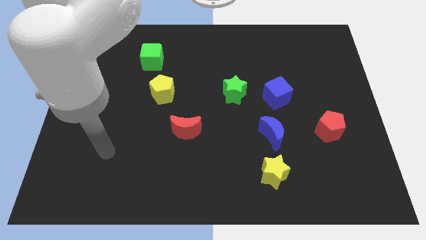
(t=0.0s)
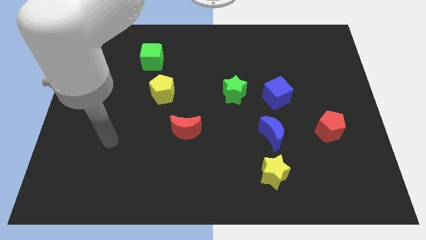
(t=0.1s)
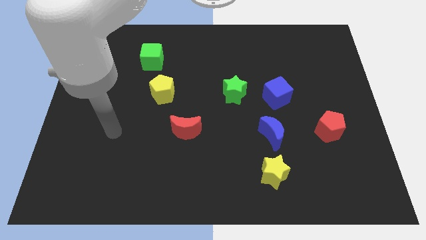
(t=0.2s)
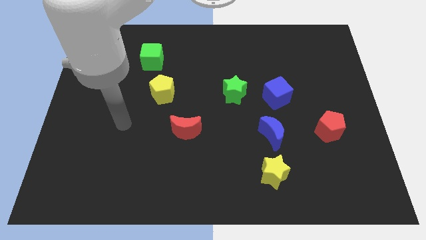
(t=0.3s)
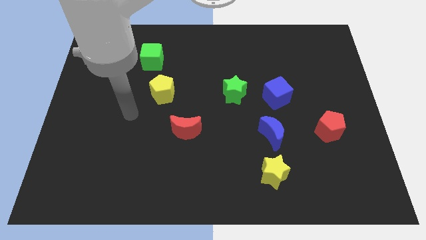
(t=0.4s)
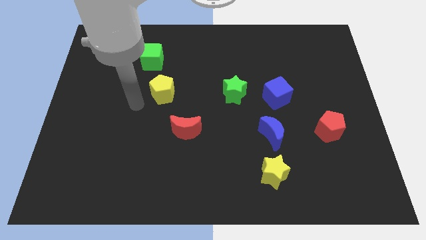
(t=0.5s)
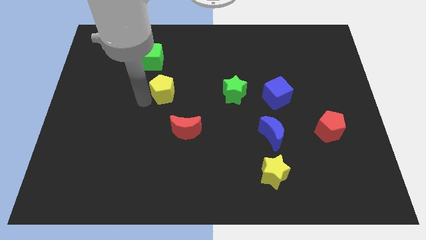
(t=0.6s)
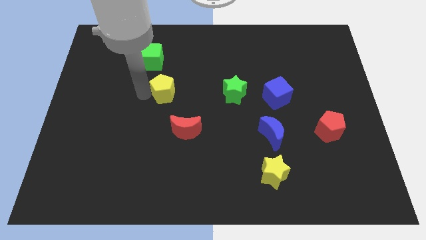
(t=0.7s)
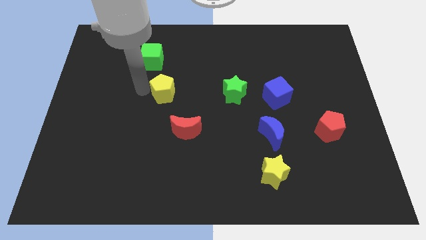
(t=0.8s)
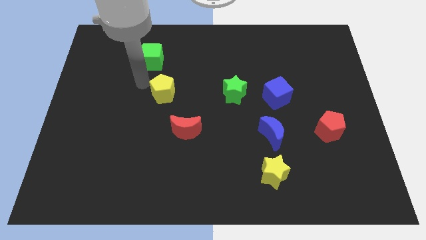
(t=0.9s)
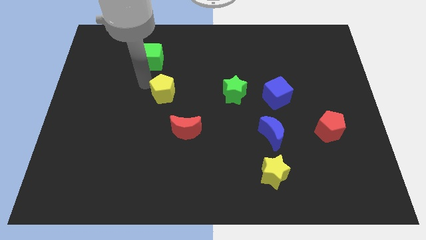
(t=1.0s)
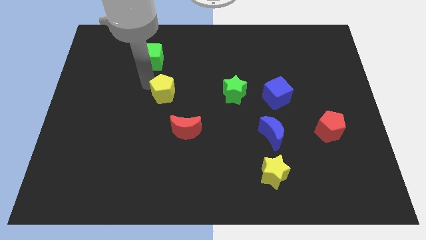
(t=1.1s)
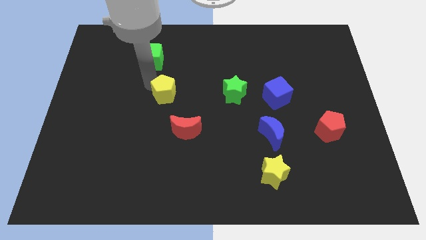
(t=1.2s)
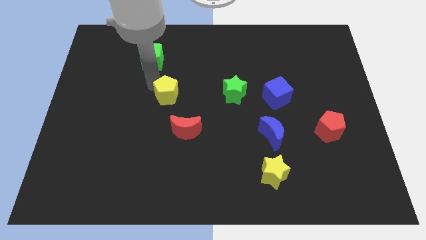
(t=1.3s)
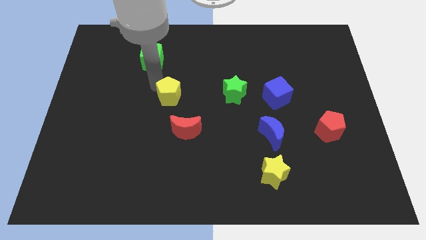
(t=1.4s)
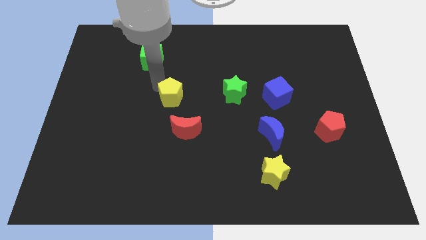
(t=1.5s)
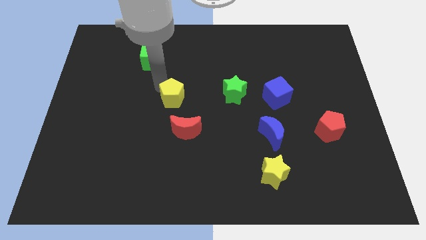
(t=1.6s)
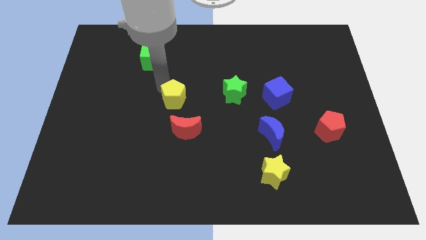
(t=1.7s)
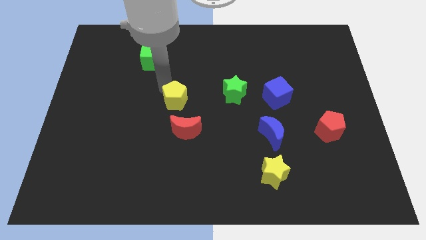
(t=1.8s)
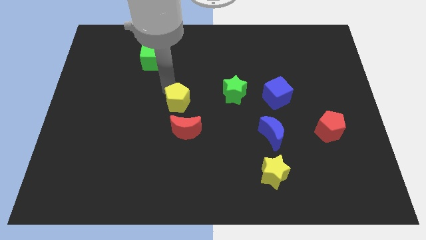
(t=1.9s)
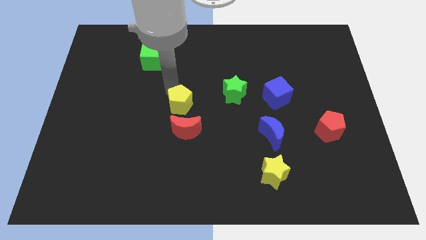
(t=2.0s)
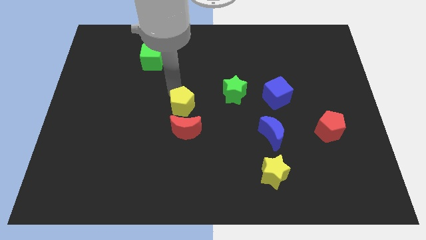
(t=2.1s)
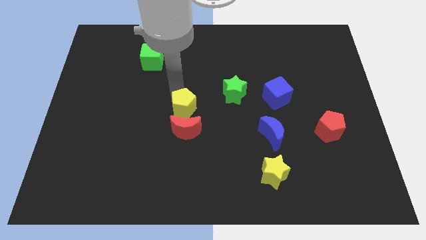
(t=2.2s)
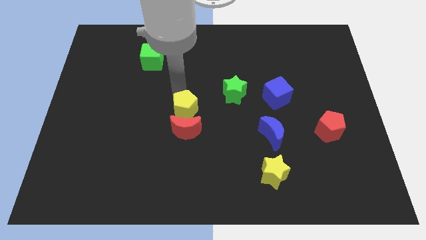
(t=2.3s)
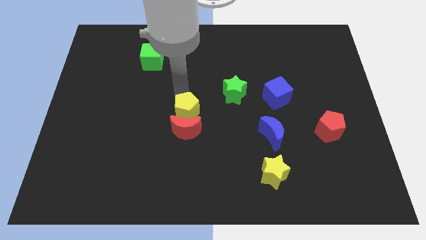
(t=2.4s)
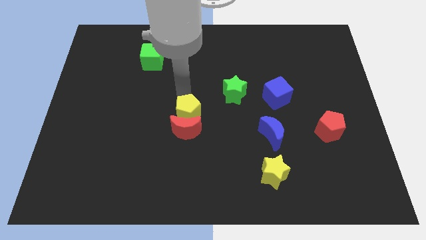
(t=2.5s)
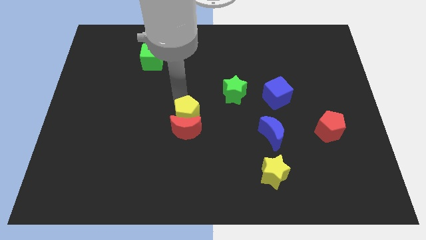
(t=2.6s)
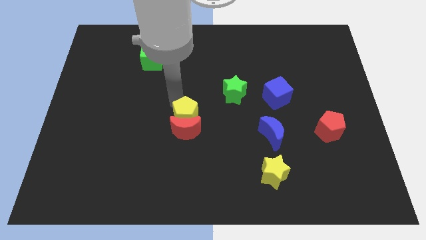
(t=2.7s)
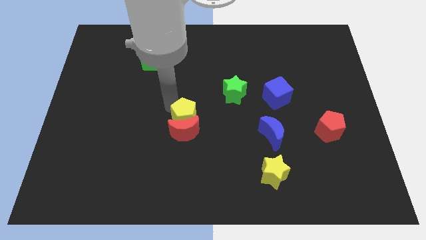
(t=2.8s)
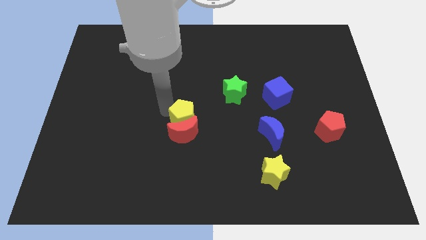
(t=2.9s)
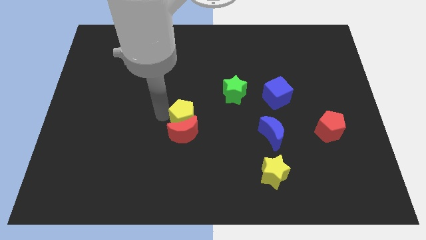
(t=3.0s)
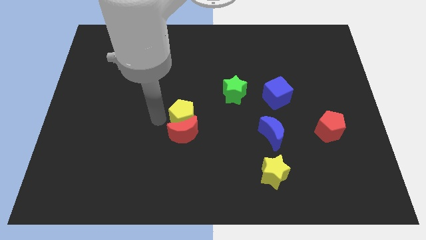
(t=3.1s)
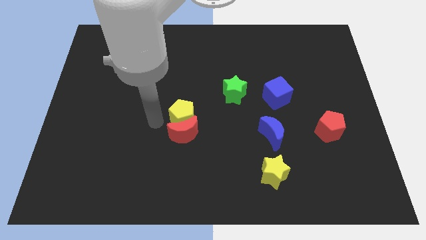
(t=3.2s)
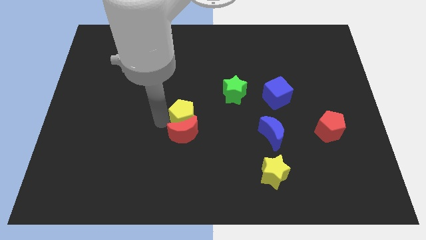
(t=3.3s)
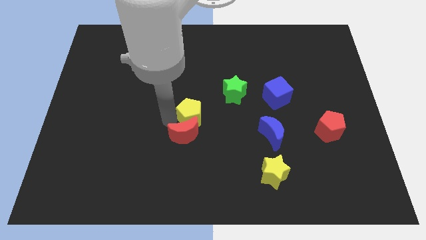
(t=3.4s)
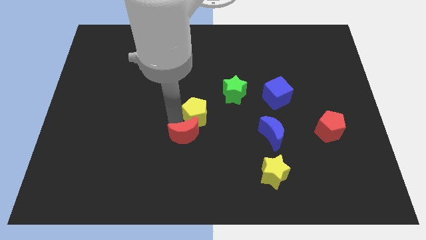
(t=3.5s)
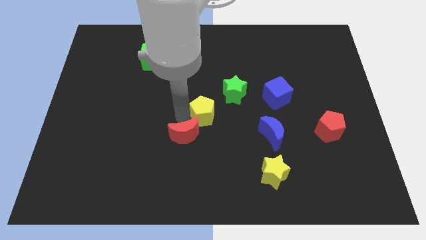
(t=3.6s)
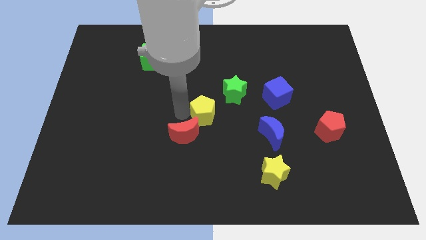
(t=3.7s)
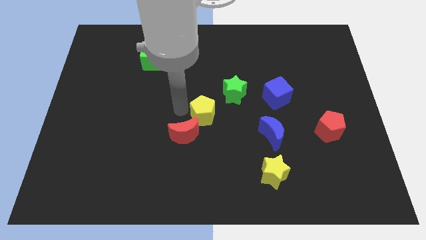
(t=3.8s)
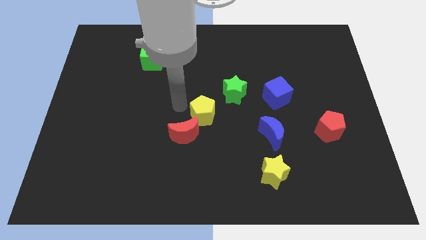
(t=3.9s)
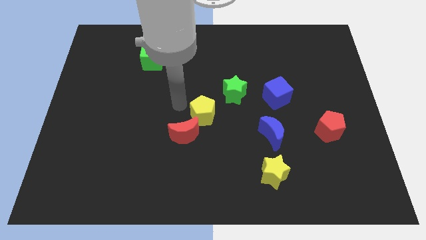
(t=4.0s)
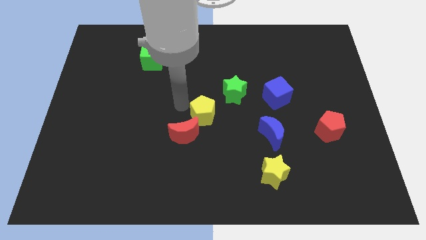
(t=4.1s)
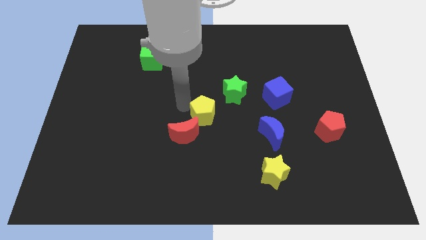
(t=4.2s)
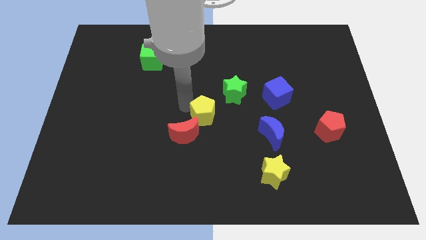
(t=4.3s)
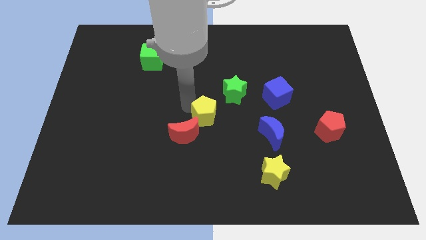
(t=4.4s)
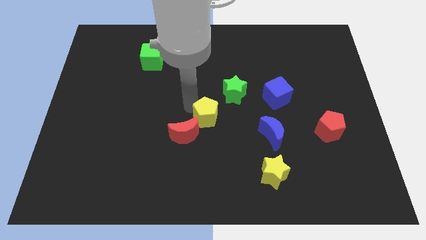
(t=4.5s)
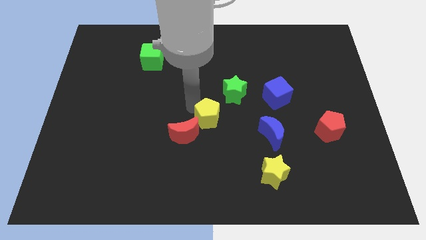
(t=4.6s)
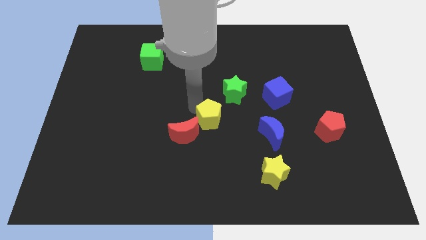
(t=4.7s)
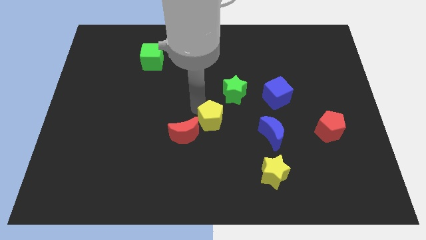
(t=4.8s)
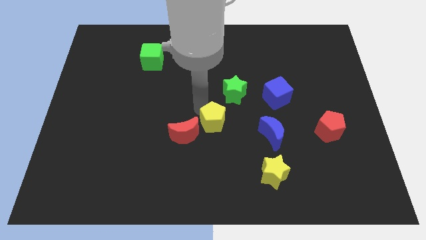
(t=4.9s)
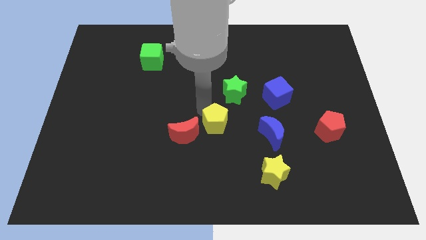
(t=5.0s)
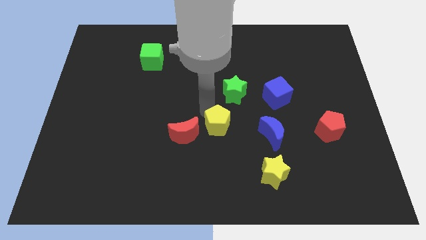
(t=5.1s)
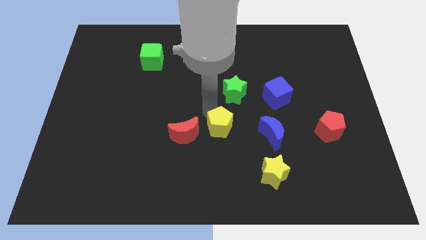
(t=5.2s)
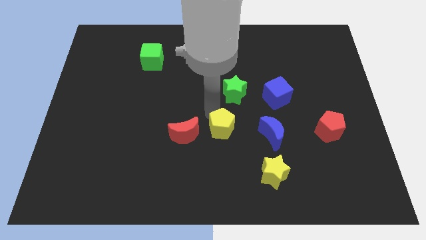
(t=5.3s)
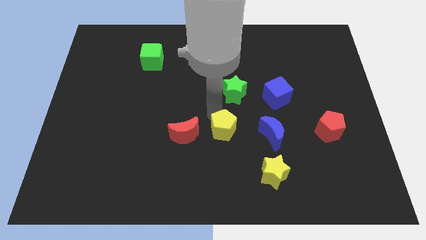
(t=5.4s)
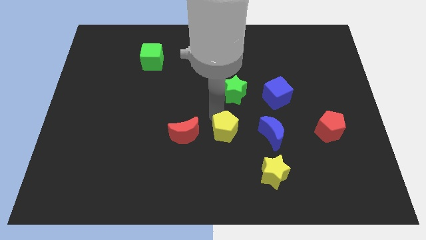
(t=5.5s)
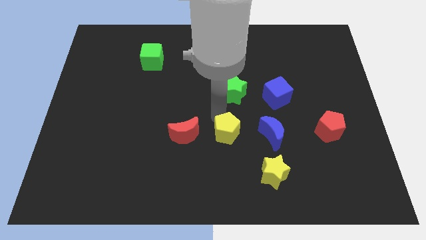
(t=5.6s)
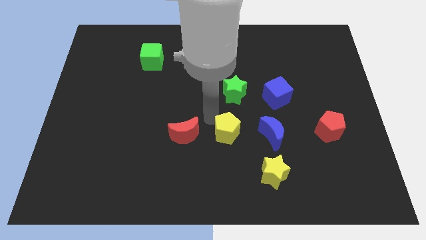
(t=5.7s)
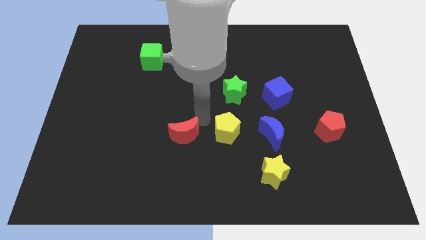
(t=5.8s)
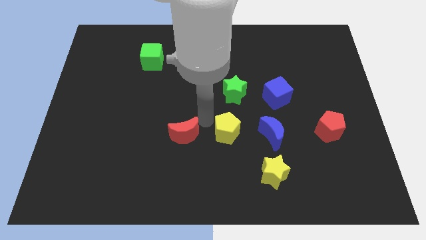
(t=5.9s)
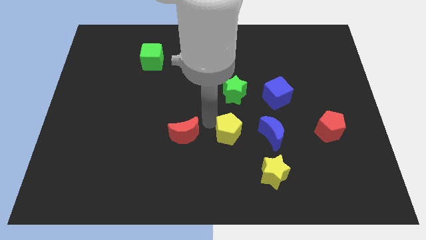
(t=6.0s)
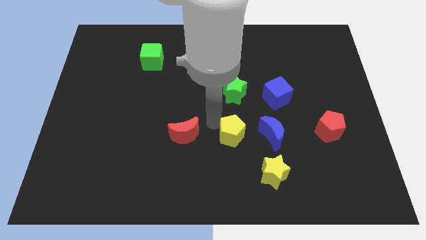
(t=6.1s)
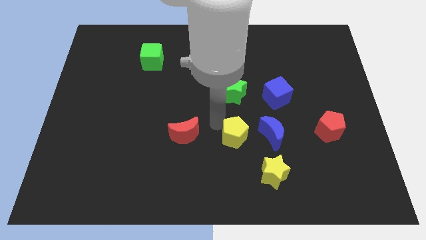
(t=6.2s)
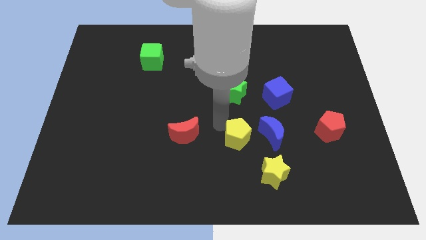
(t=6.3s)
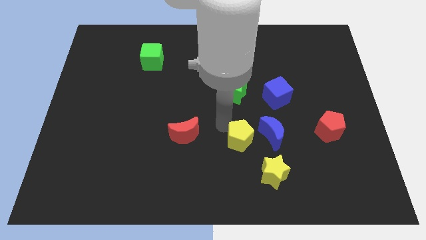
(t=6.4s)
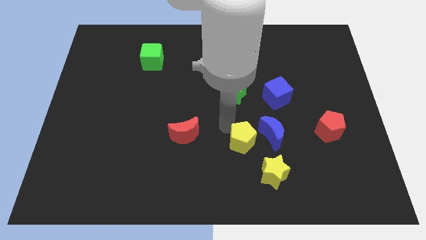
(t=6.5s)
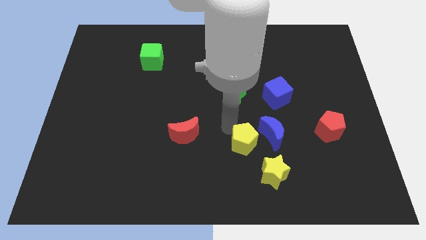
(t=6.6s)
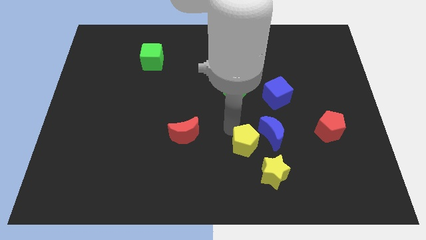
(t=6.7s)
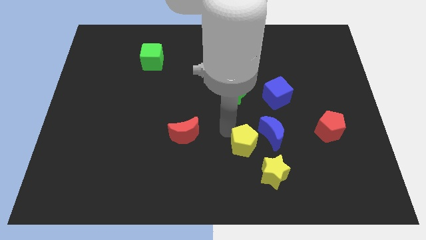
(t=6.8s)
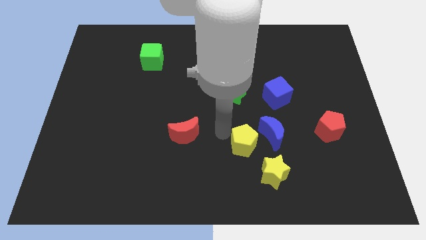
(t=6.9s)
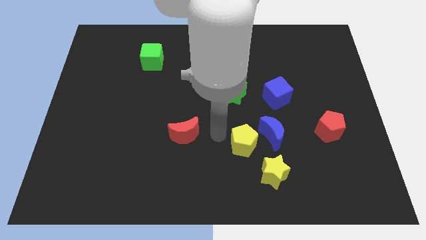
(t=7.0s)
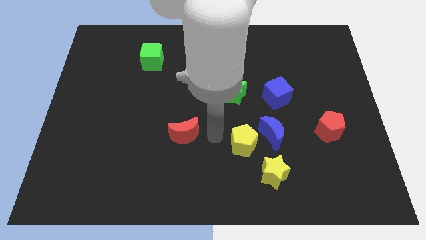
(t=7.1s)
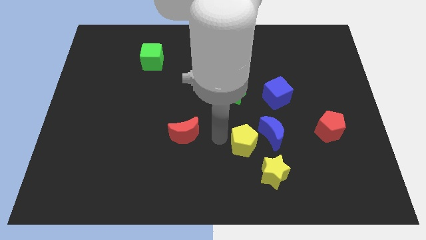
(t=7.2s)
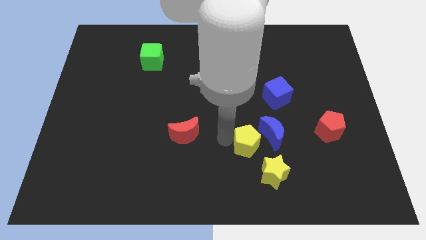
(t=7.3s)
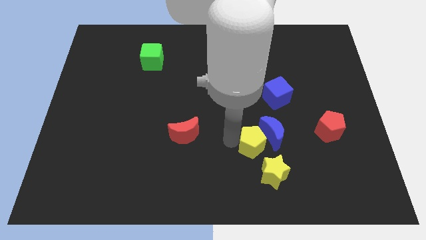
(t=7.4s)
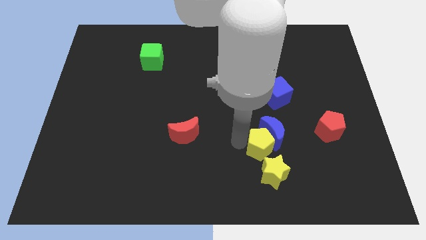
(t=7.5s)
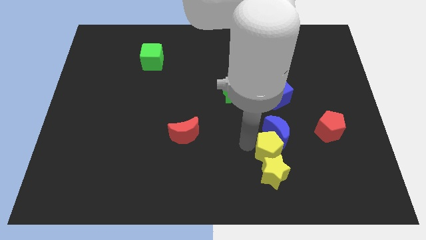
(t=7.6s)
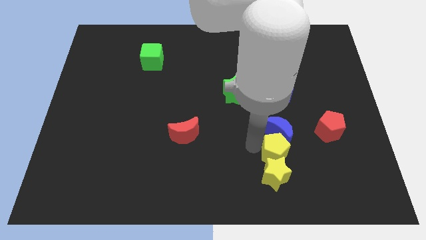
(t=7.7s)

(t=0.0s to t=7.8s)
move the yellow pentagon diagonally down and to the right of the blue moon
